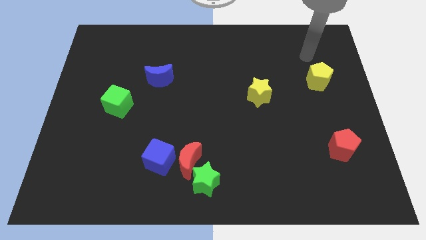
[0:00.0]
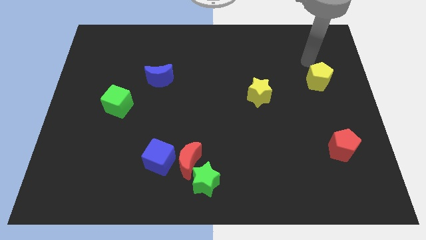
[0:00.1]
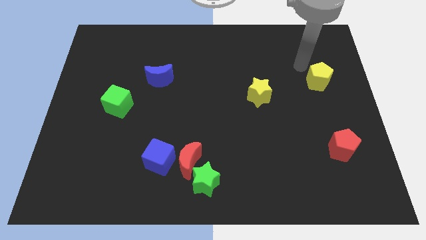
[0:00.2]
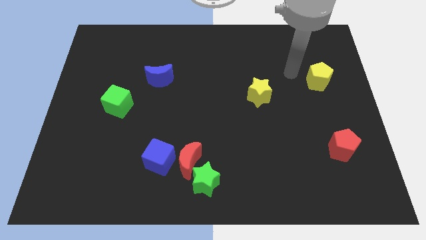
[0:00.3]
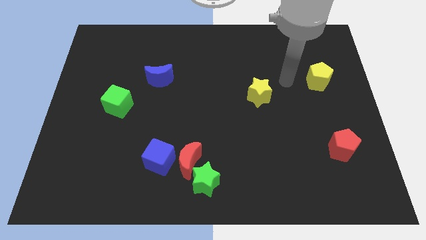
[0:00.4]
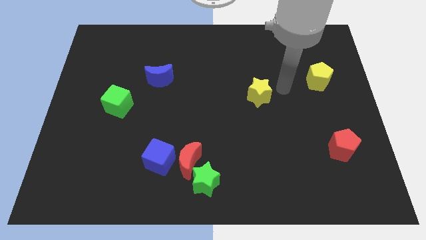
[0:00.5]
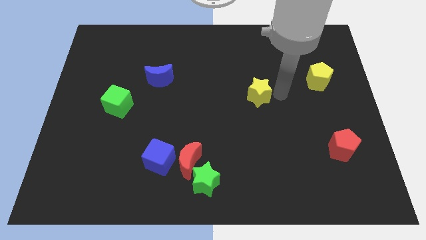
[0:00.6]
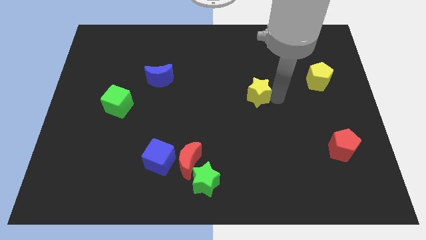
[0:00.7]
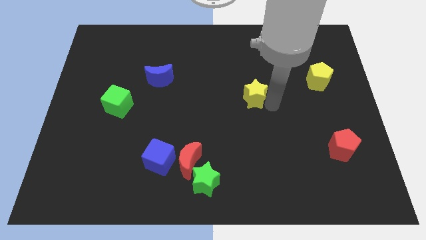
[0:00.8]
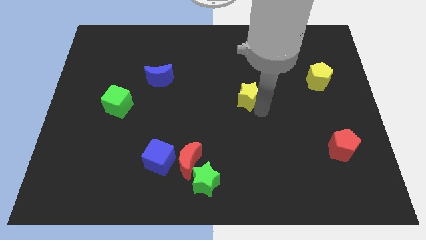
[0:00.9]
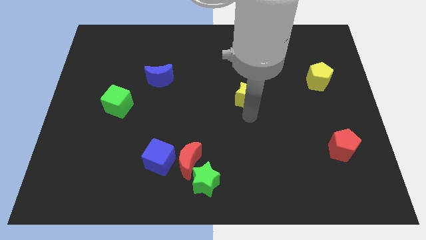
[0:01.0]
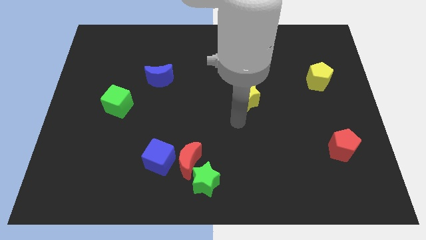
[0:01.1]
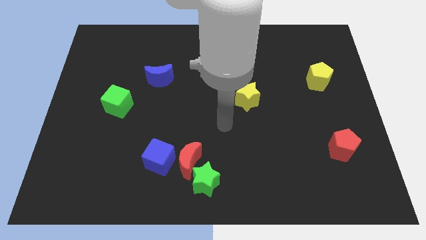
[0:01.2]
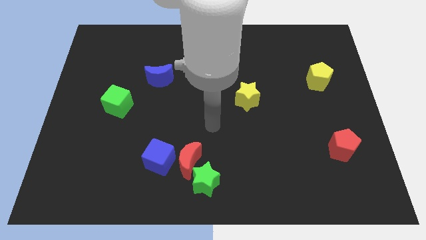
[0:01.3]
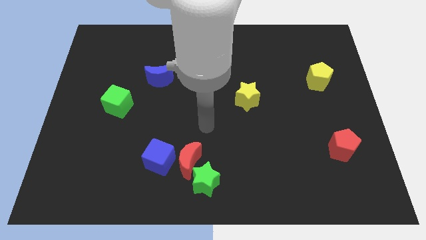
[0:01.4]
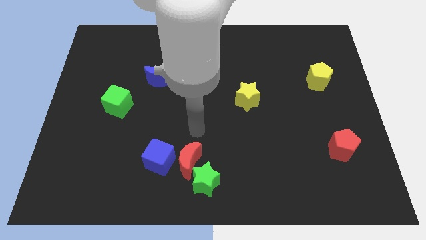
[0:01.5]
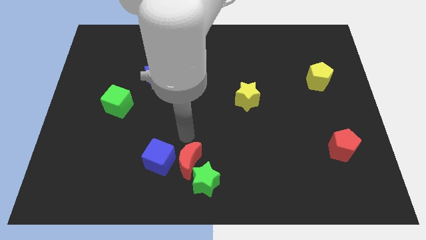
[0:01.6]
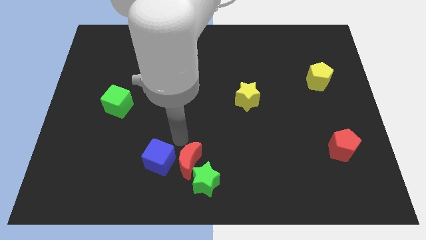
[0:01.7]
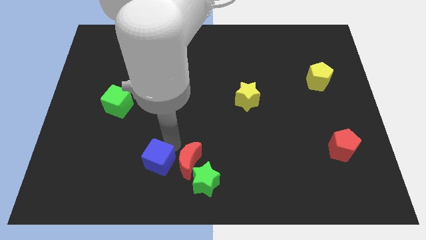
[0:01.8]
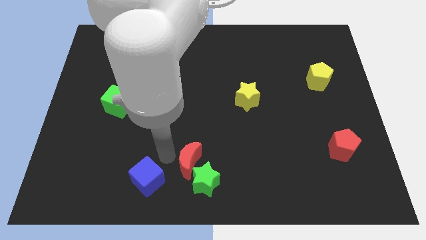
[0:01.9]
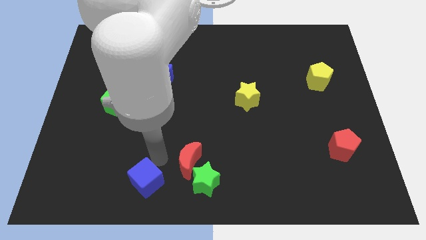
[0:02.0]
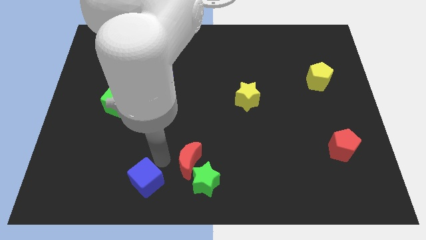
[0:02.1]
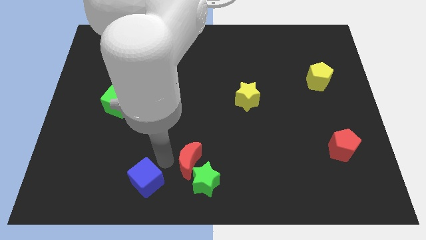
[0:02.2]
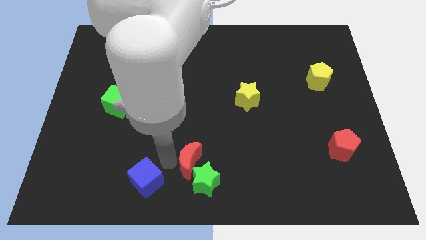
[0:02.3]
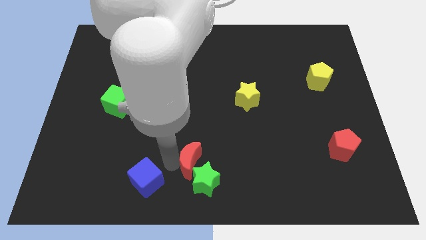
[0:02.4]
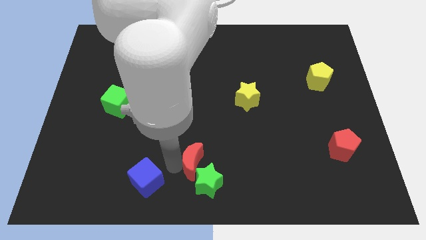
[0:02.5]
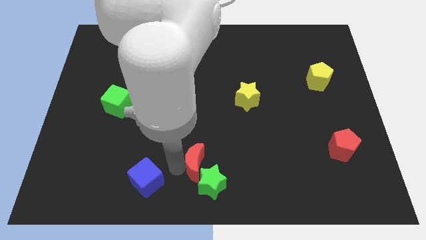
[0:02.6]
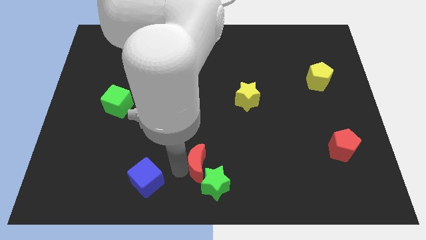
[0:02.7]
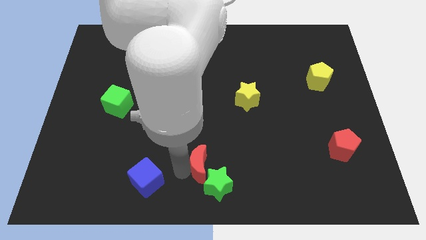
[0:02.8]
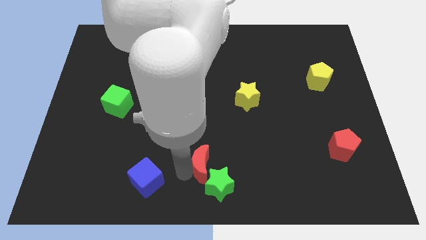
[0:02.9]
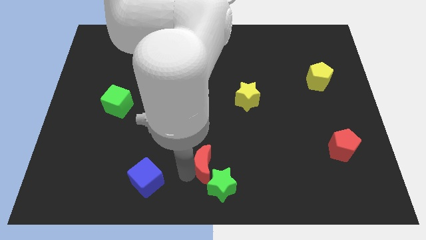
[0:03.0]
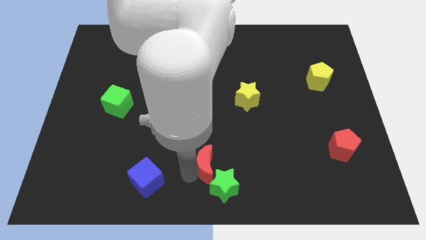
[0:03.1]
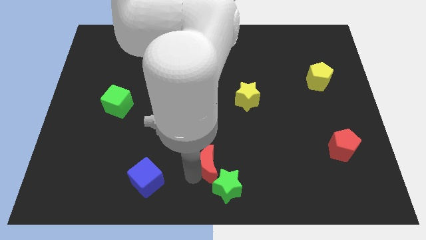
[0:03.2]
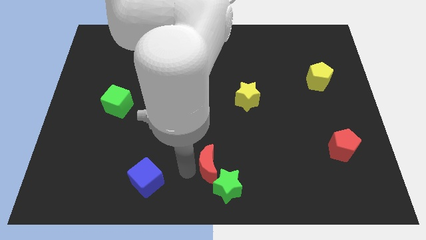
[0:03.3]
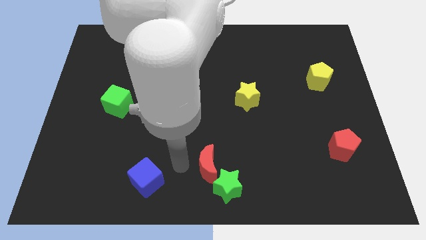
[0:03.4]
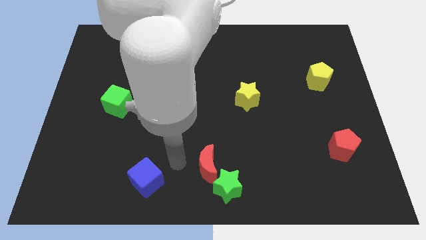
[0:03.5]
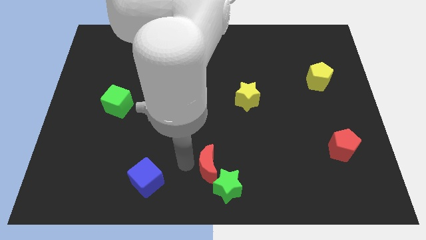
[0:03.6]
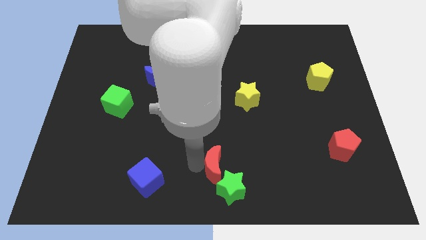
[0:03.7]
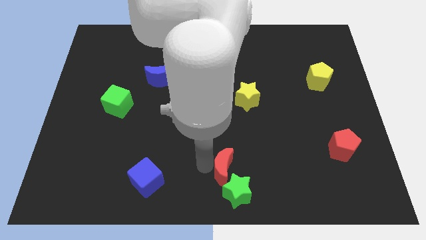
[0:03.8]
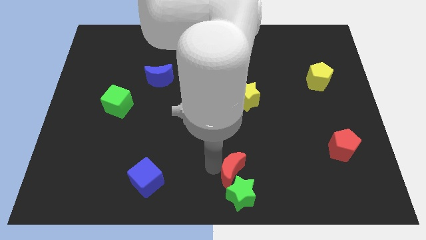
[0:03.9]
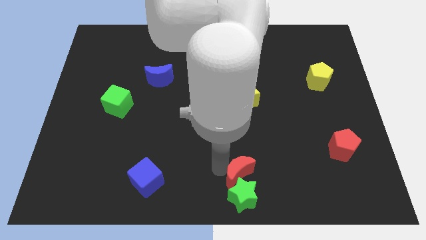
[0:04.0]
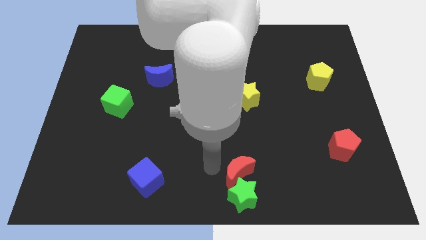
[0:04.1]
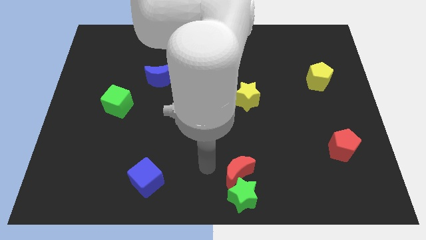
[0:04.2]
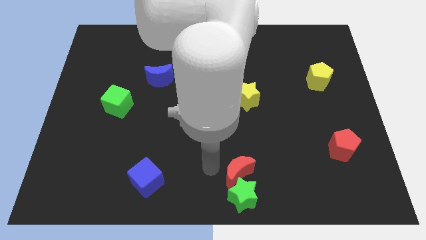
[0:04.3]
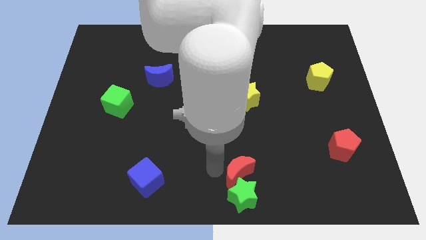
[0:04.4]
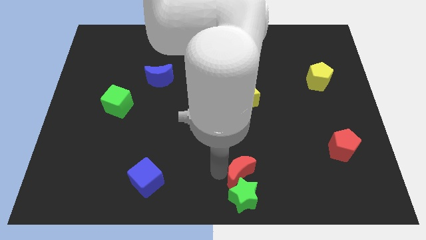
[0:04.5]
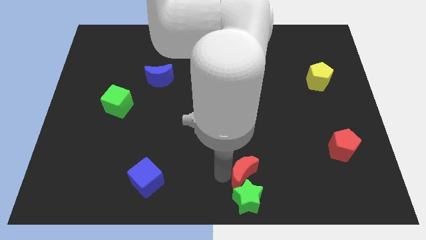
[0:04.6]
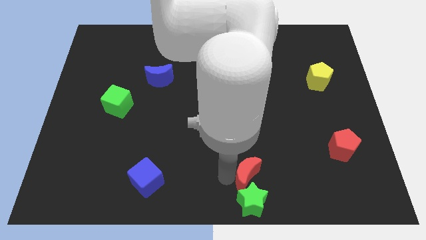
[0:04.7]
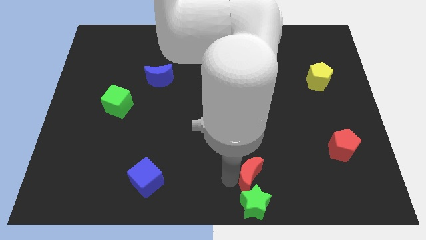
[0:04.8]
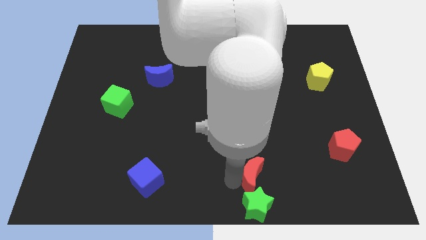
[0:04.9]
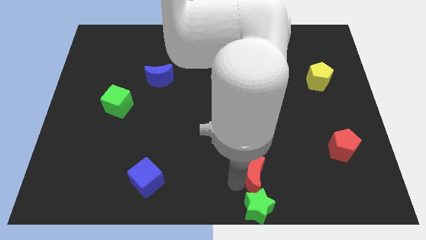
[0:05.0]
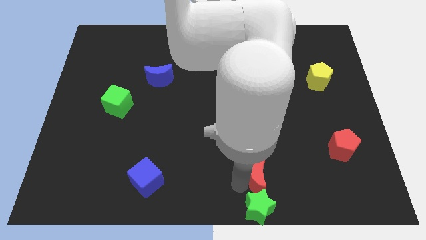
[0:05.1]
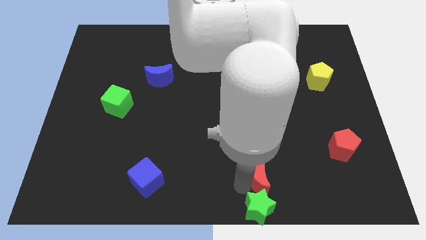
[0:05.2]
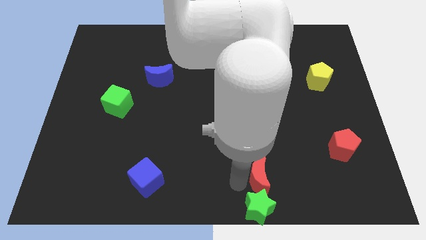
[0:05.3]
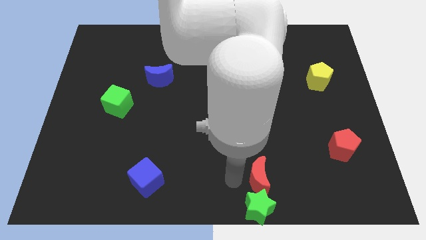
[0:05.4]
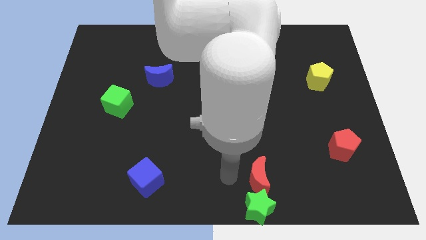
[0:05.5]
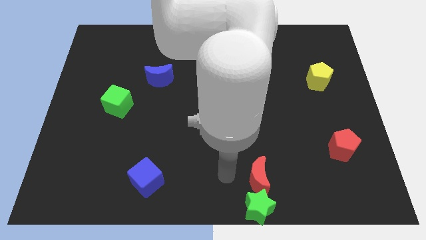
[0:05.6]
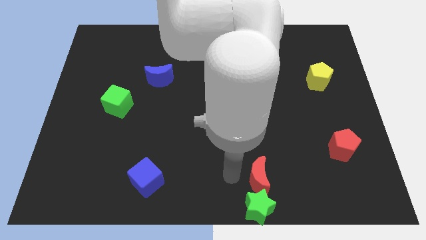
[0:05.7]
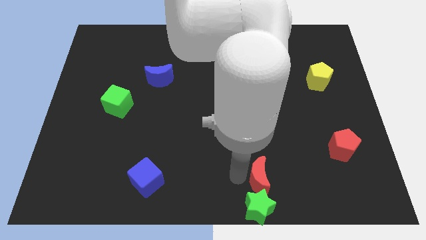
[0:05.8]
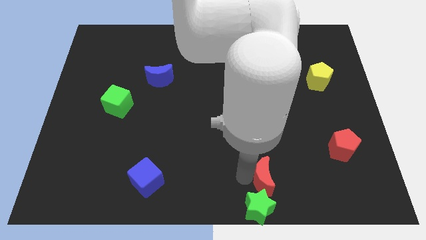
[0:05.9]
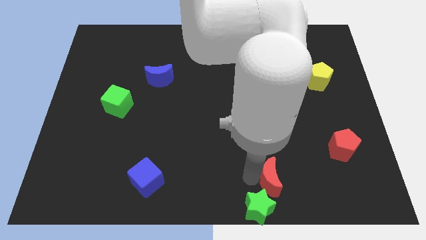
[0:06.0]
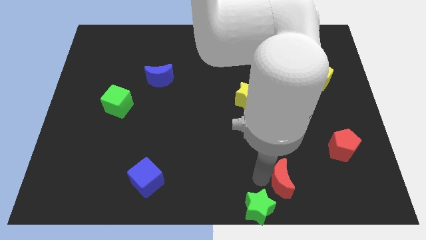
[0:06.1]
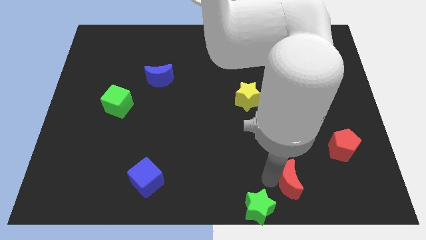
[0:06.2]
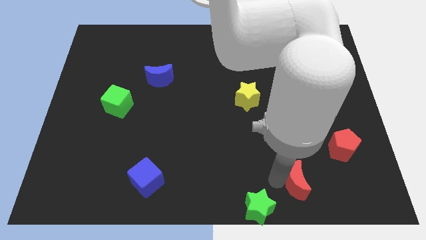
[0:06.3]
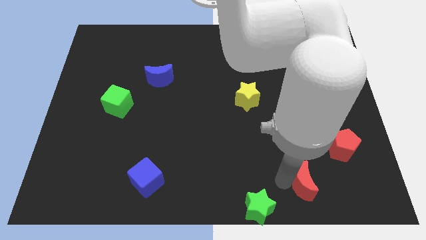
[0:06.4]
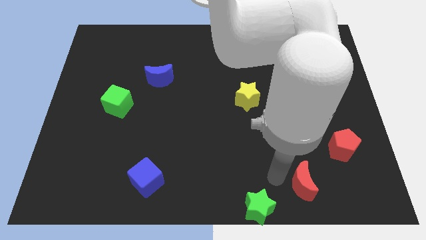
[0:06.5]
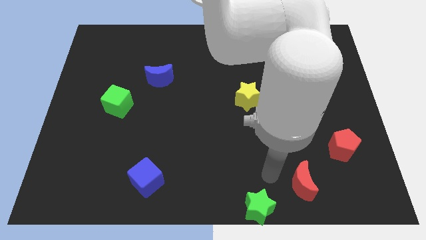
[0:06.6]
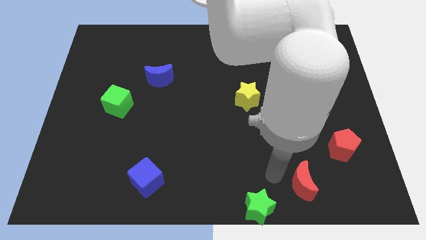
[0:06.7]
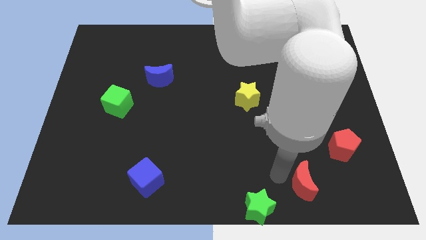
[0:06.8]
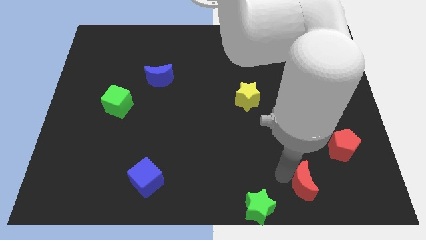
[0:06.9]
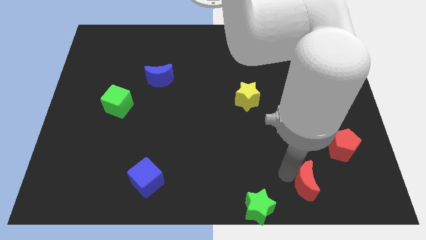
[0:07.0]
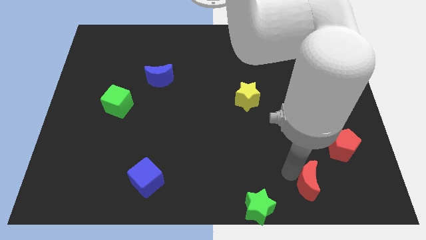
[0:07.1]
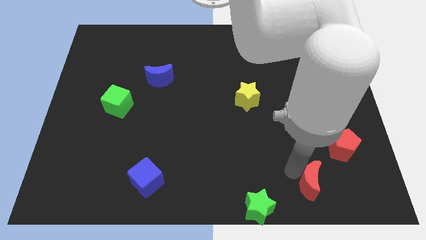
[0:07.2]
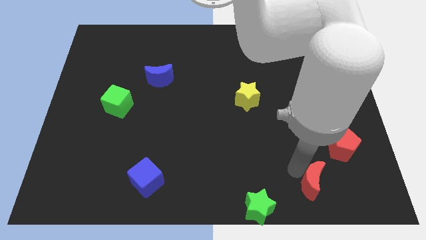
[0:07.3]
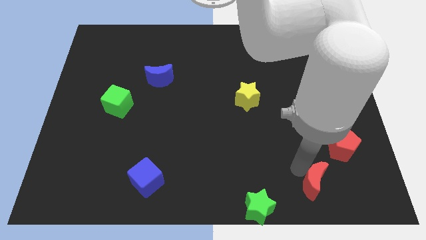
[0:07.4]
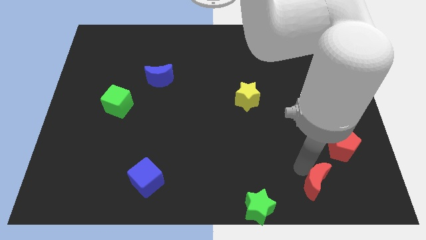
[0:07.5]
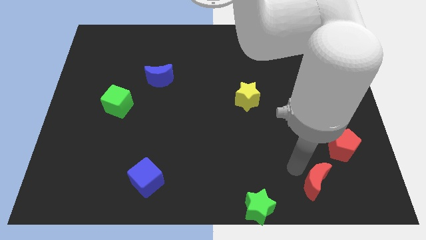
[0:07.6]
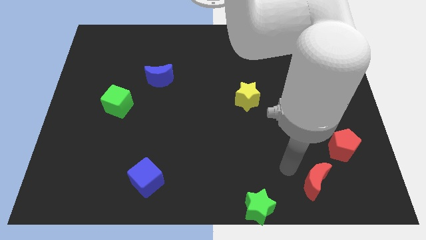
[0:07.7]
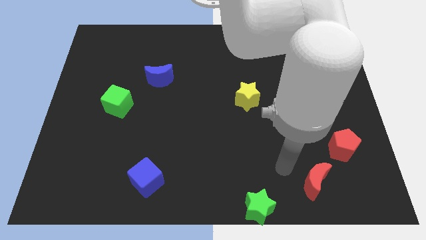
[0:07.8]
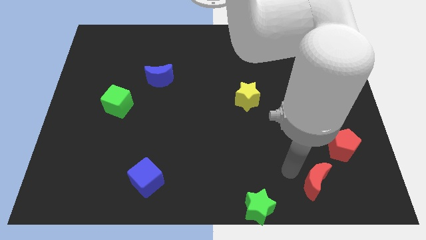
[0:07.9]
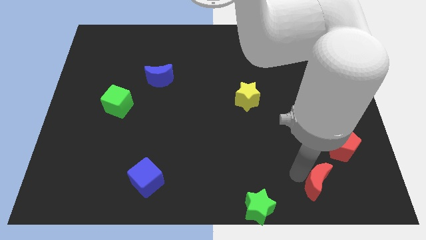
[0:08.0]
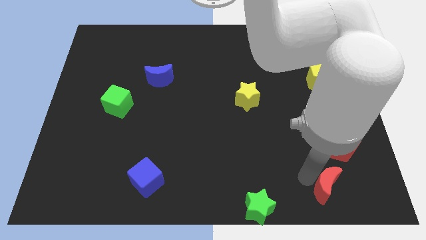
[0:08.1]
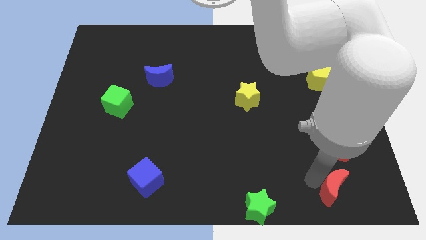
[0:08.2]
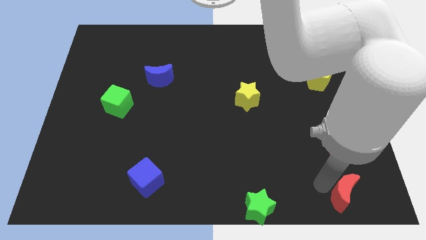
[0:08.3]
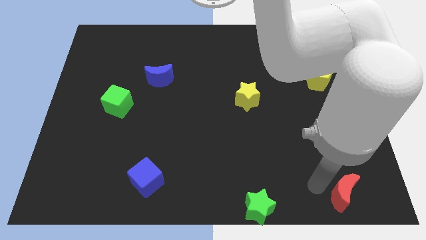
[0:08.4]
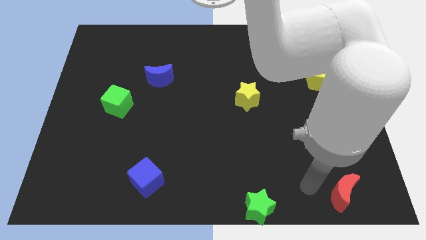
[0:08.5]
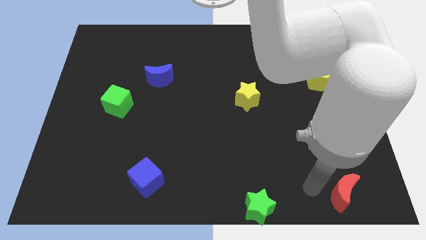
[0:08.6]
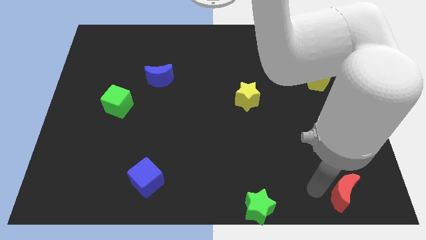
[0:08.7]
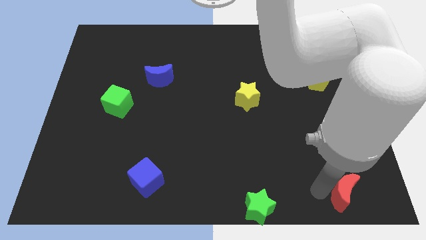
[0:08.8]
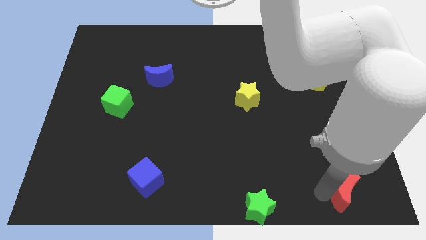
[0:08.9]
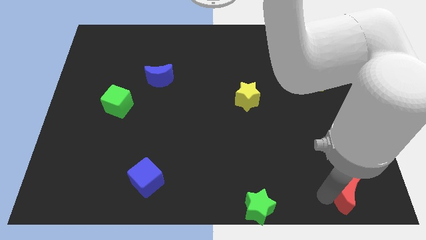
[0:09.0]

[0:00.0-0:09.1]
push the red moon to the bottom right
